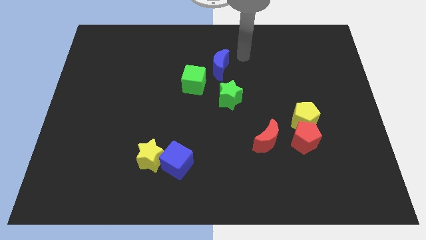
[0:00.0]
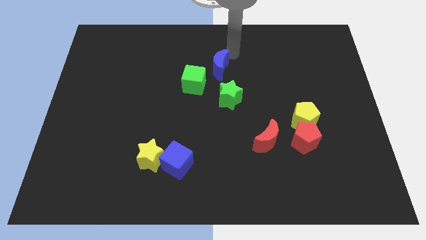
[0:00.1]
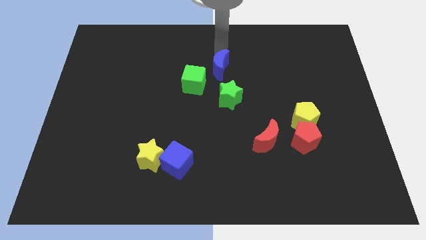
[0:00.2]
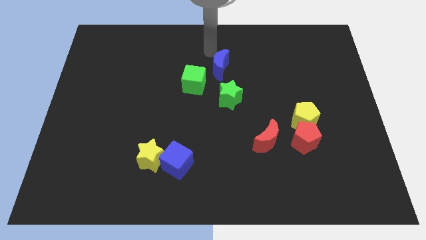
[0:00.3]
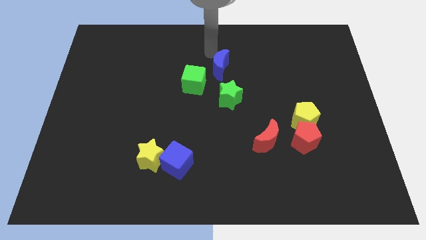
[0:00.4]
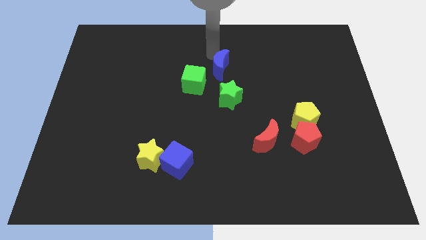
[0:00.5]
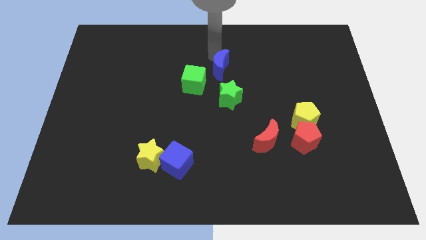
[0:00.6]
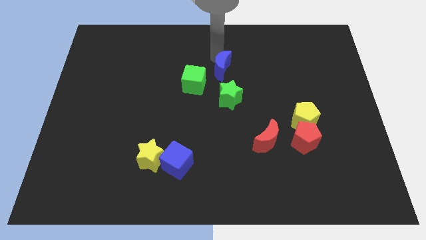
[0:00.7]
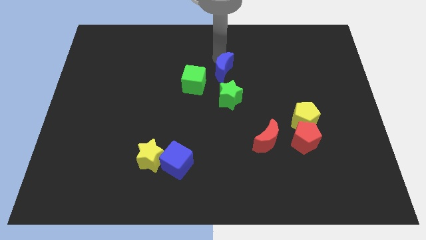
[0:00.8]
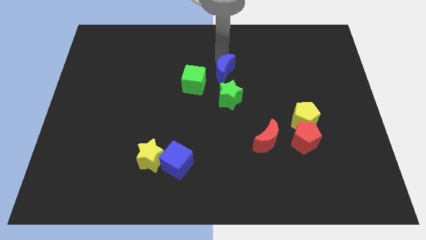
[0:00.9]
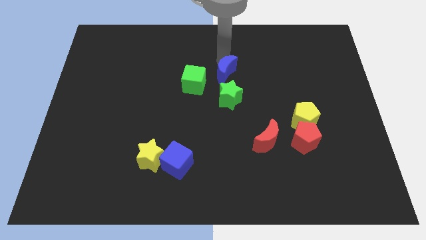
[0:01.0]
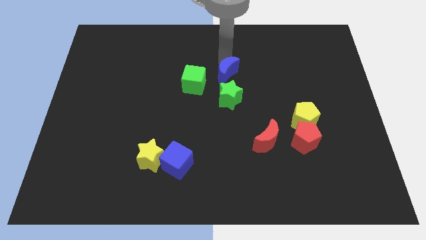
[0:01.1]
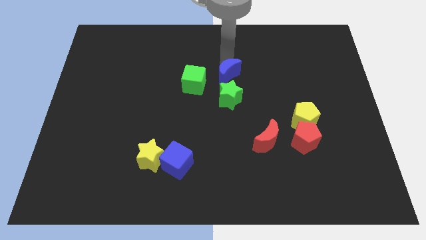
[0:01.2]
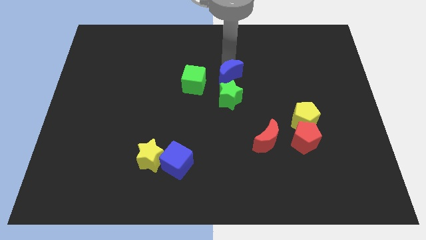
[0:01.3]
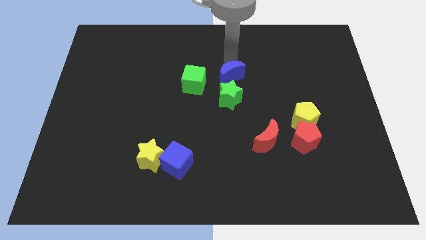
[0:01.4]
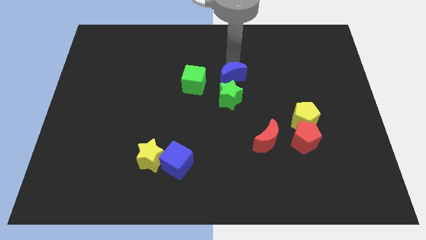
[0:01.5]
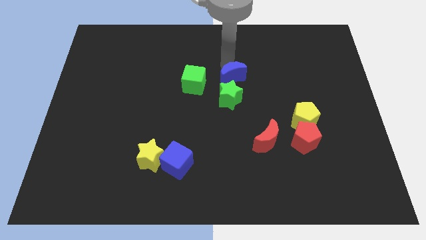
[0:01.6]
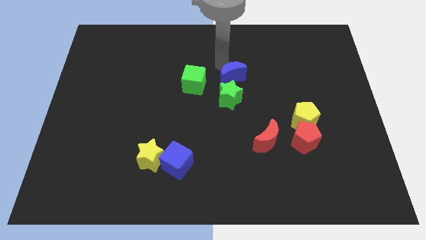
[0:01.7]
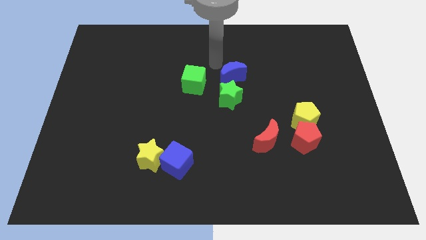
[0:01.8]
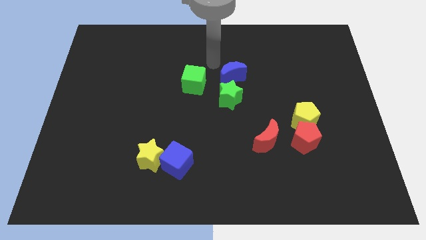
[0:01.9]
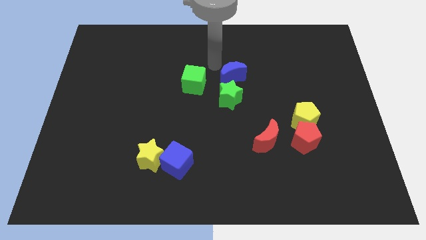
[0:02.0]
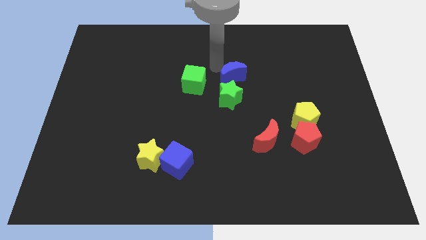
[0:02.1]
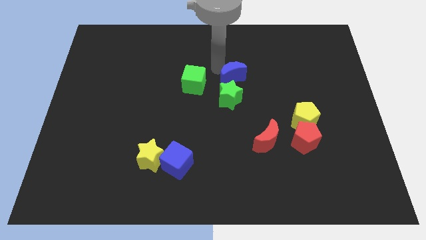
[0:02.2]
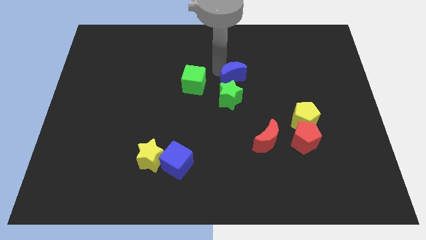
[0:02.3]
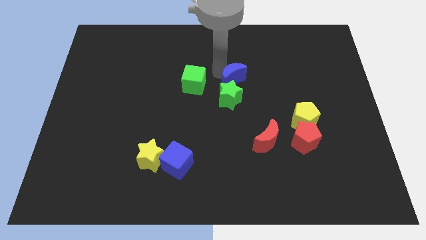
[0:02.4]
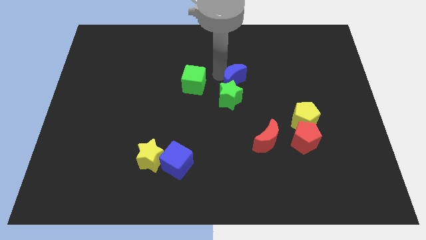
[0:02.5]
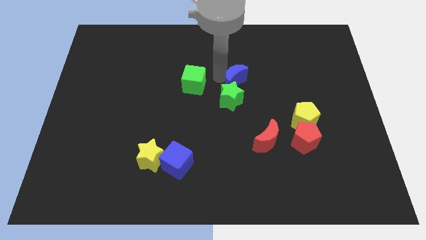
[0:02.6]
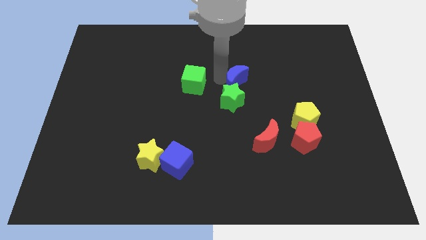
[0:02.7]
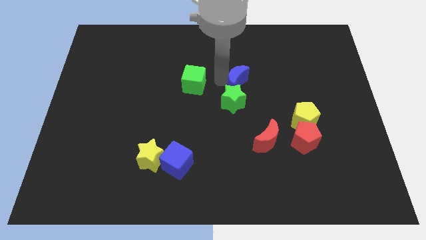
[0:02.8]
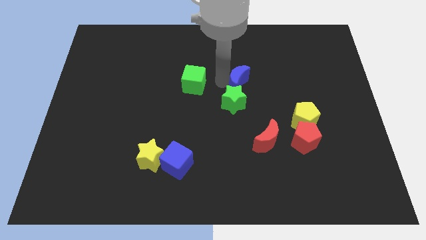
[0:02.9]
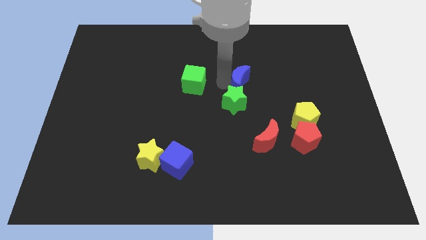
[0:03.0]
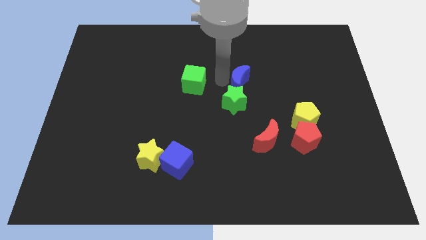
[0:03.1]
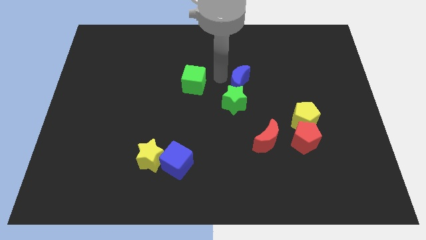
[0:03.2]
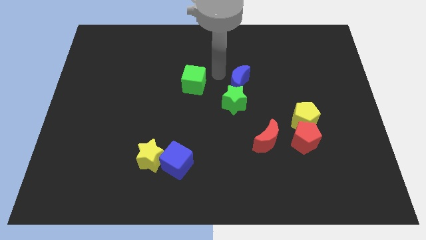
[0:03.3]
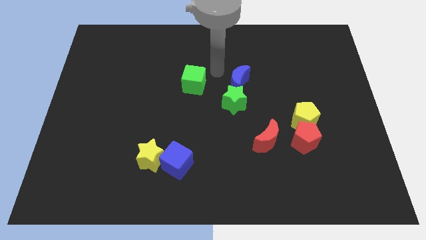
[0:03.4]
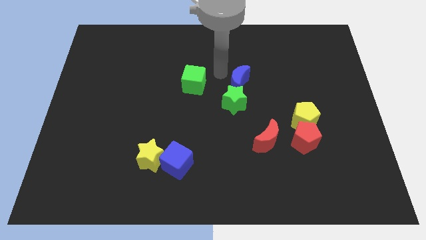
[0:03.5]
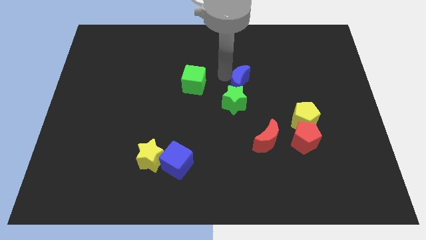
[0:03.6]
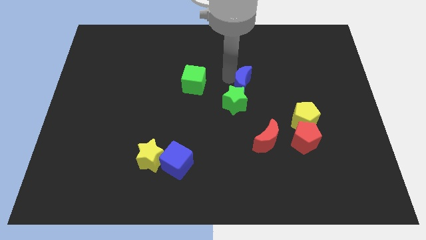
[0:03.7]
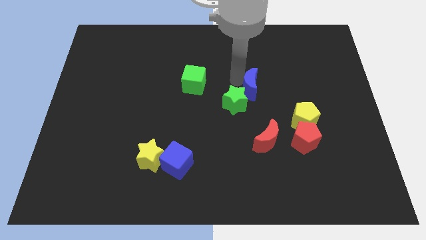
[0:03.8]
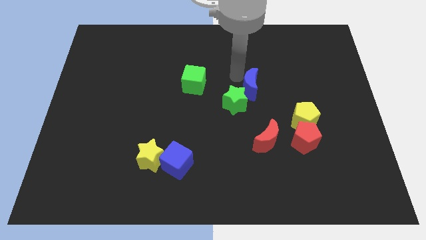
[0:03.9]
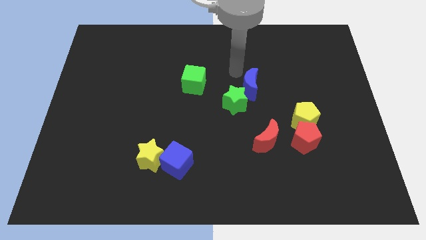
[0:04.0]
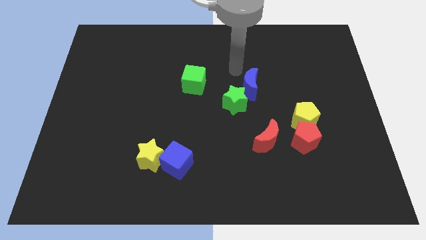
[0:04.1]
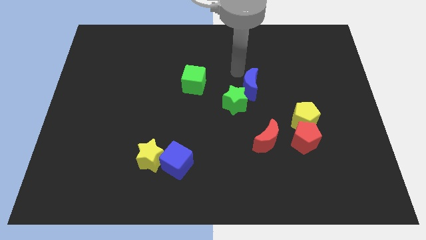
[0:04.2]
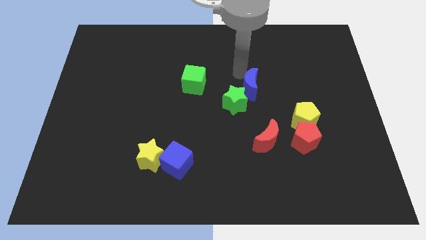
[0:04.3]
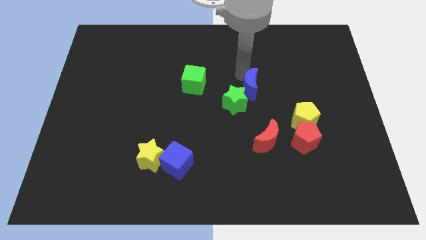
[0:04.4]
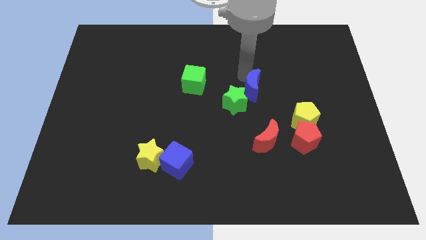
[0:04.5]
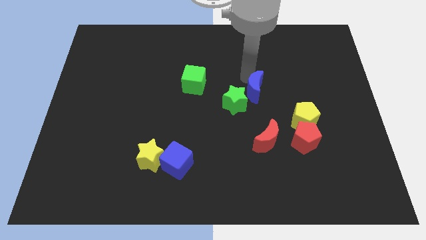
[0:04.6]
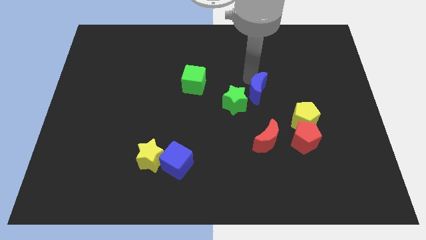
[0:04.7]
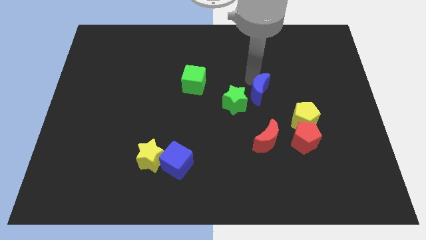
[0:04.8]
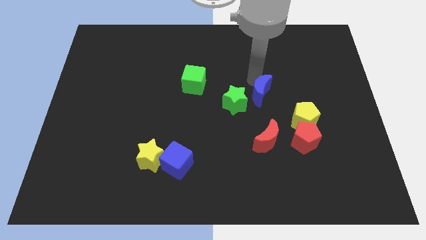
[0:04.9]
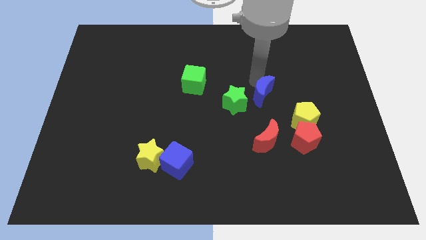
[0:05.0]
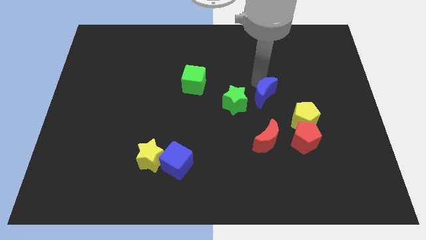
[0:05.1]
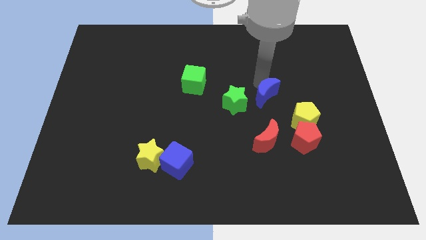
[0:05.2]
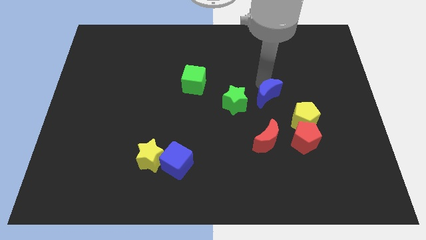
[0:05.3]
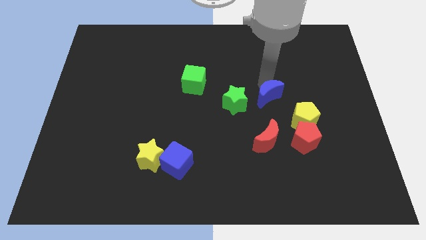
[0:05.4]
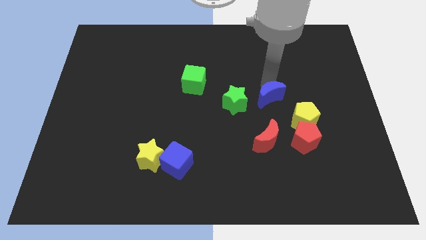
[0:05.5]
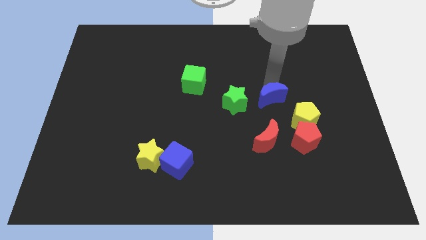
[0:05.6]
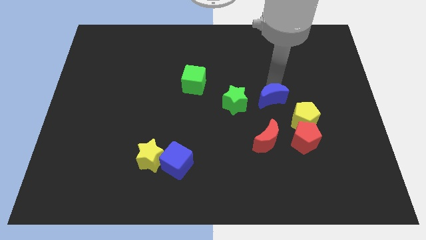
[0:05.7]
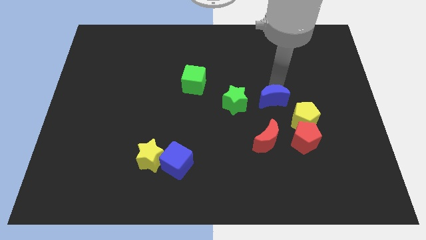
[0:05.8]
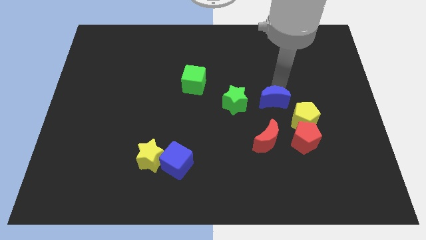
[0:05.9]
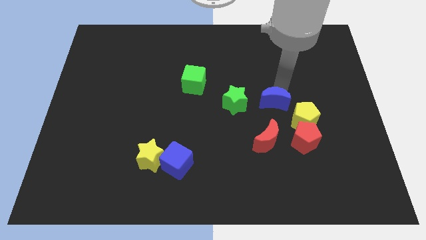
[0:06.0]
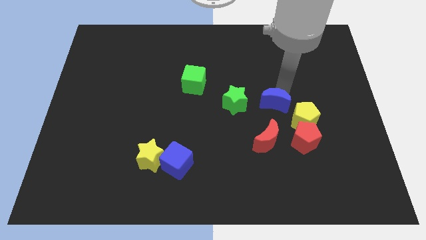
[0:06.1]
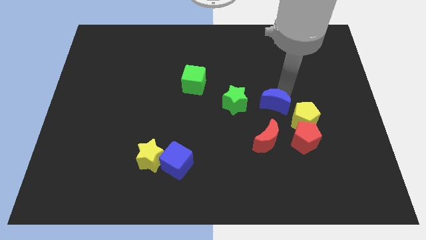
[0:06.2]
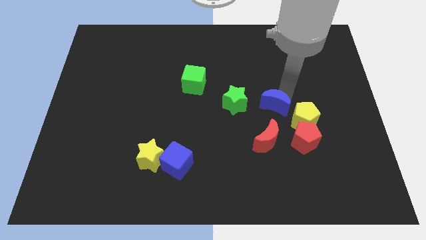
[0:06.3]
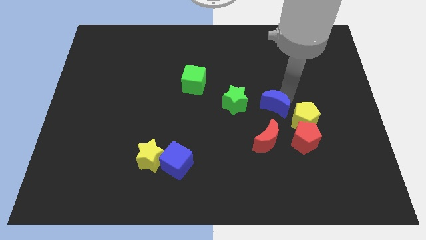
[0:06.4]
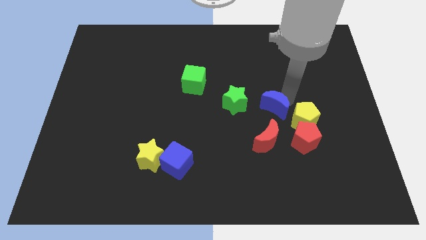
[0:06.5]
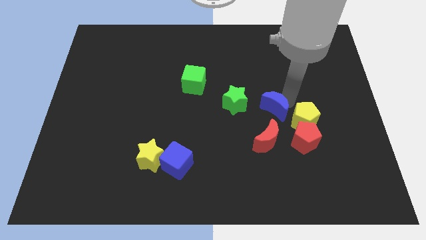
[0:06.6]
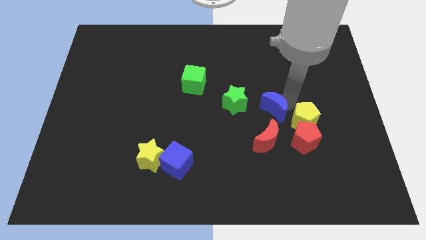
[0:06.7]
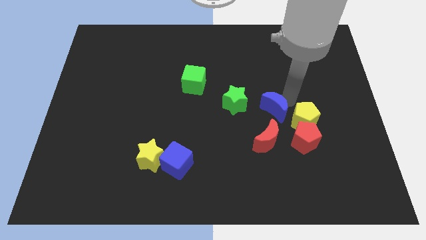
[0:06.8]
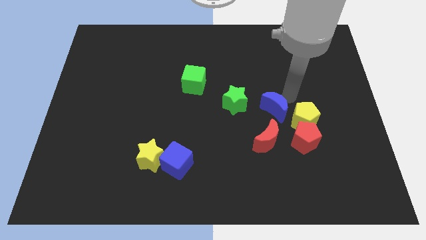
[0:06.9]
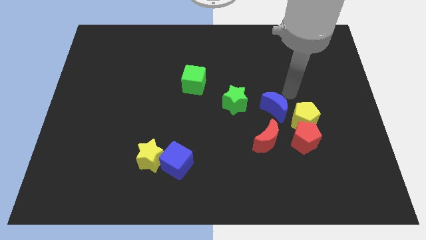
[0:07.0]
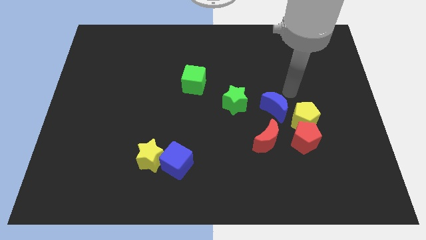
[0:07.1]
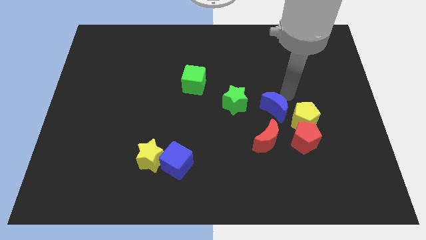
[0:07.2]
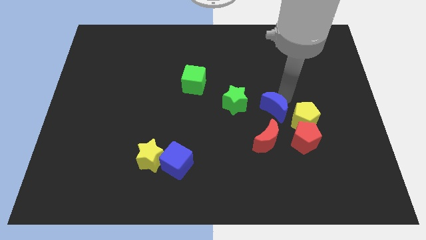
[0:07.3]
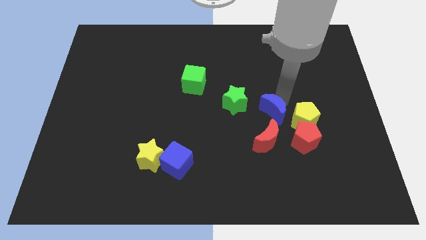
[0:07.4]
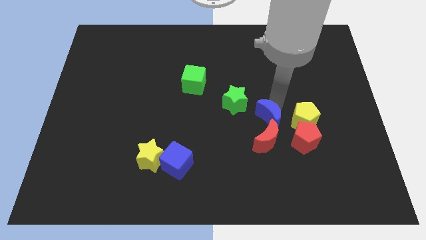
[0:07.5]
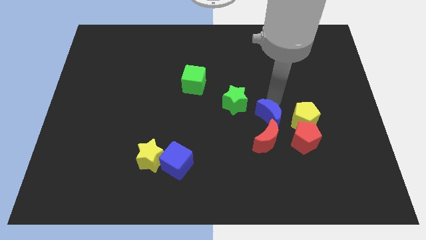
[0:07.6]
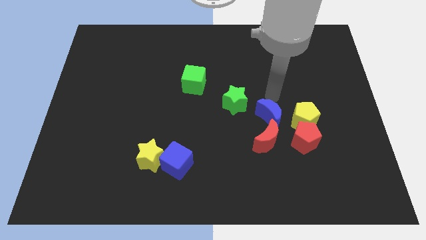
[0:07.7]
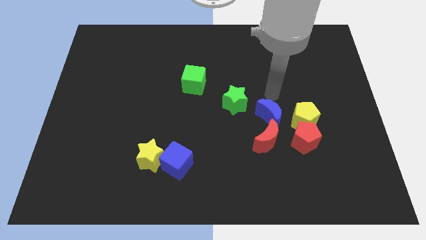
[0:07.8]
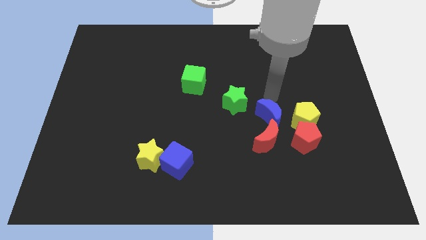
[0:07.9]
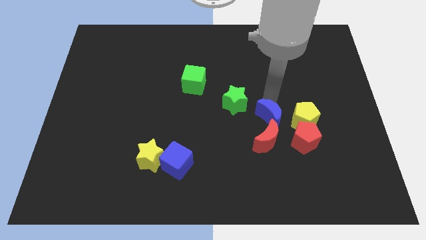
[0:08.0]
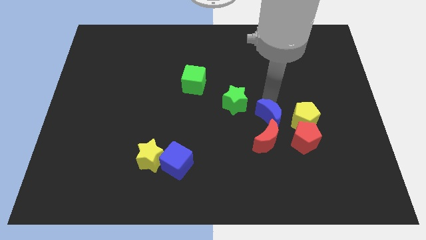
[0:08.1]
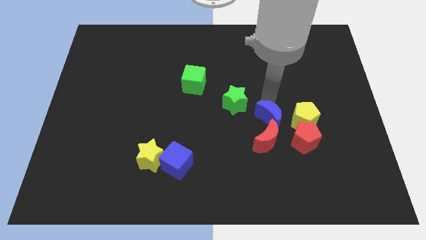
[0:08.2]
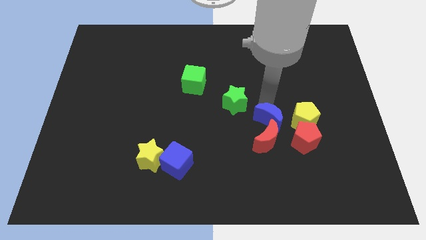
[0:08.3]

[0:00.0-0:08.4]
move the blue moon to the red moon
